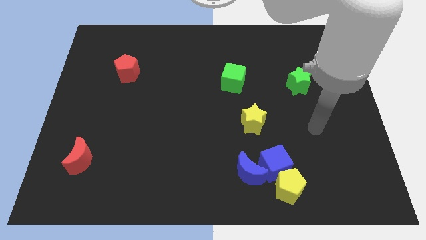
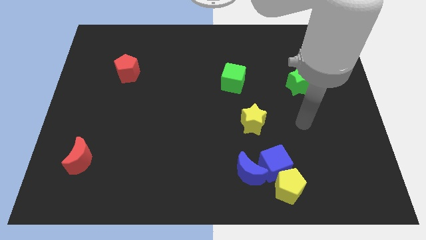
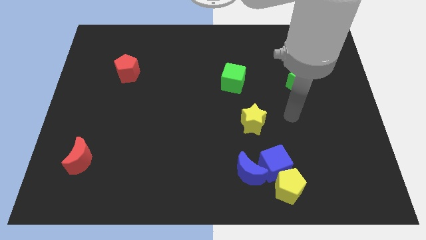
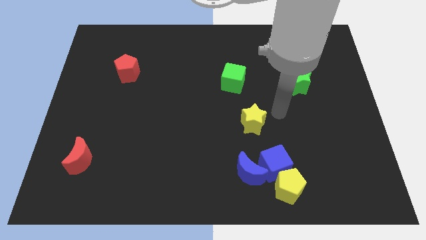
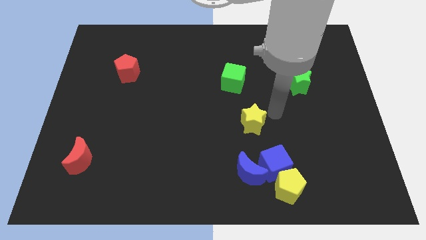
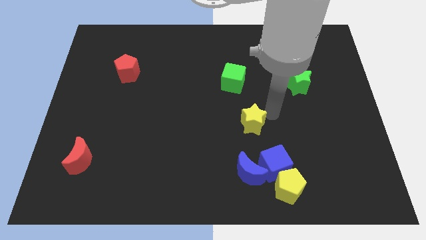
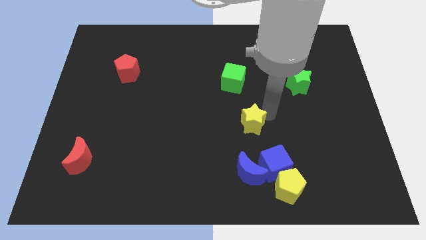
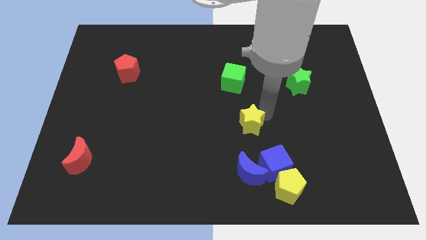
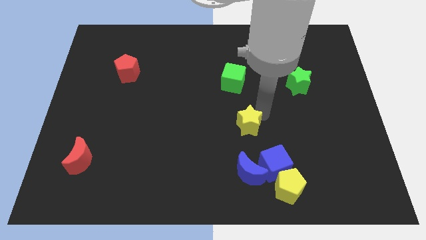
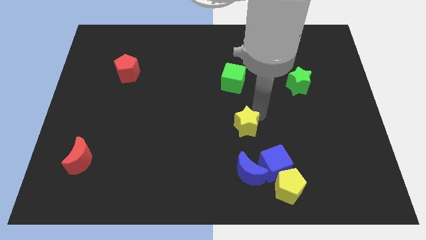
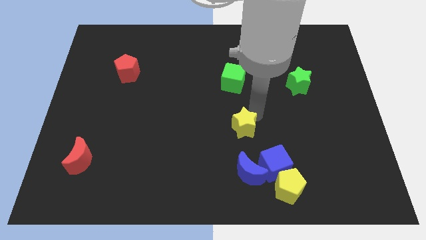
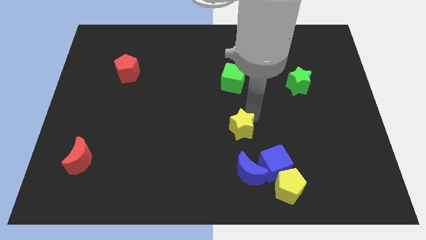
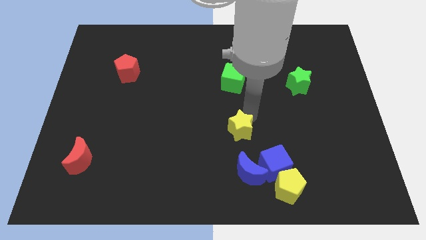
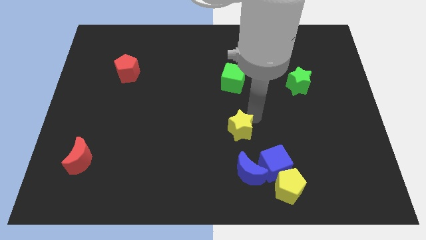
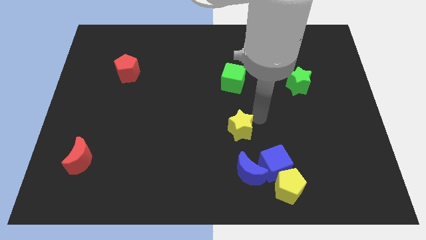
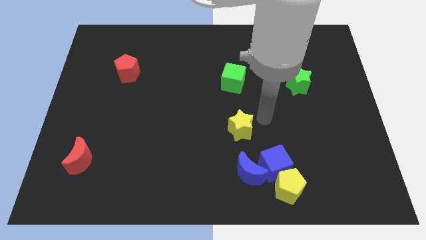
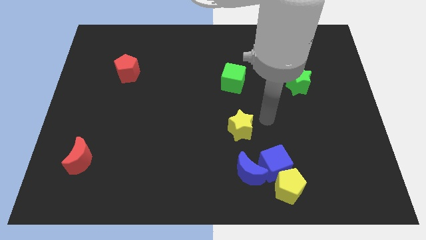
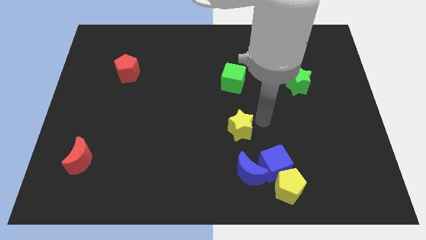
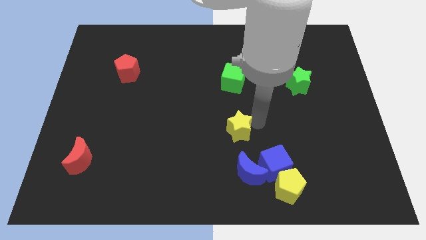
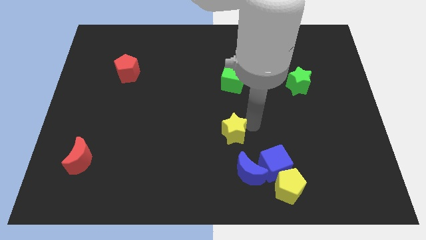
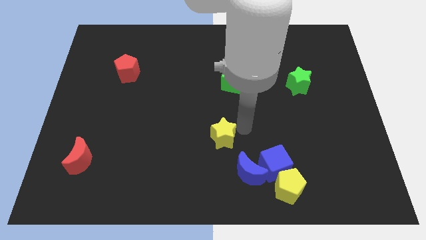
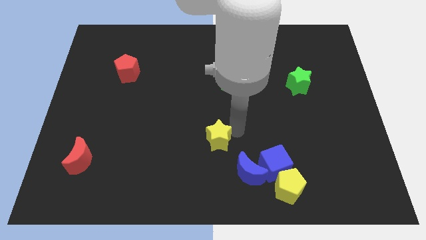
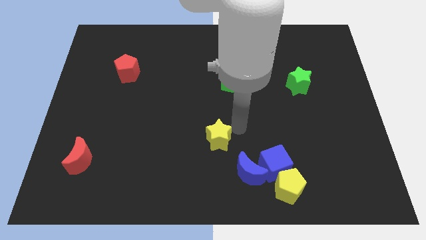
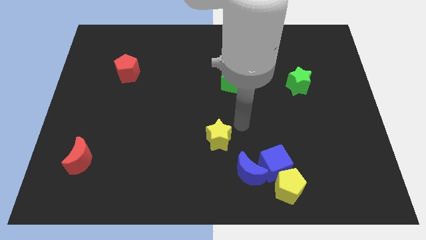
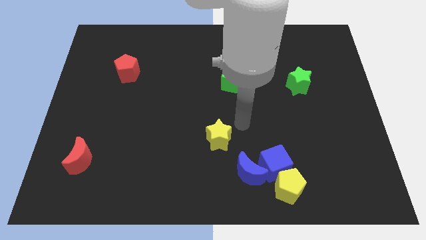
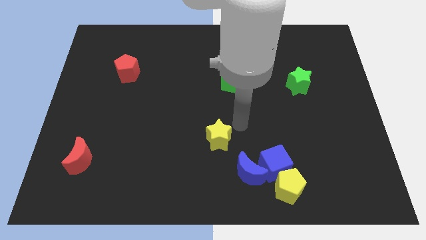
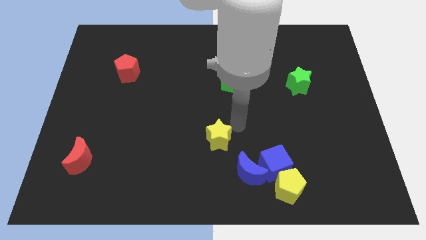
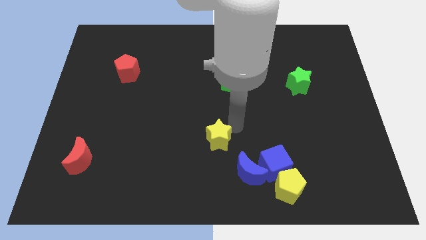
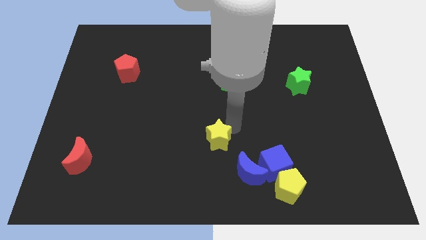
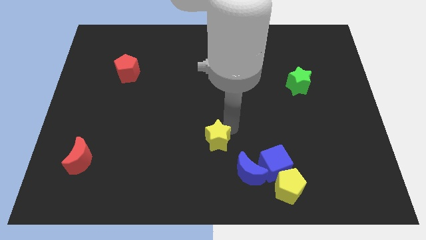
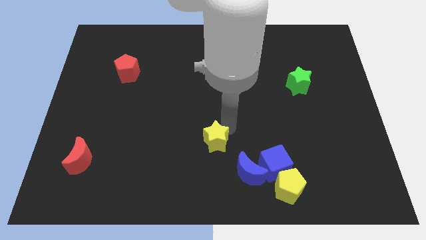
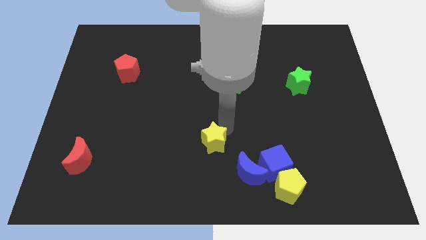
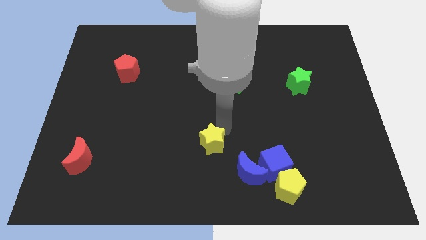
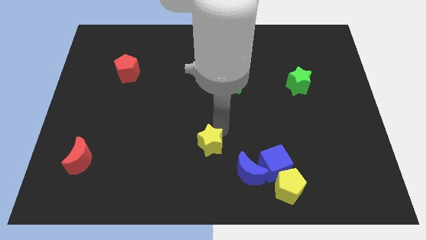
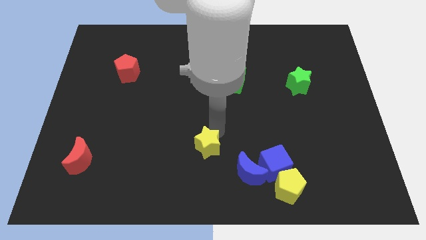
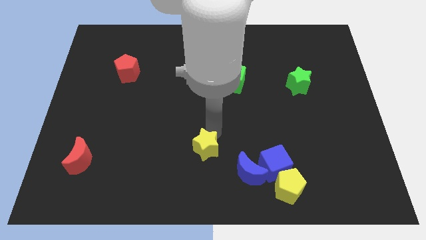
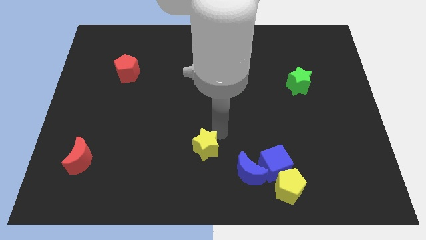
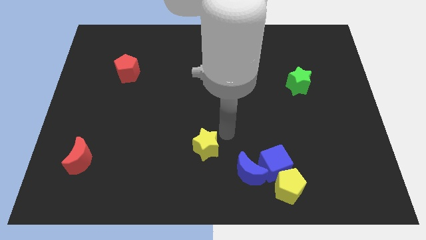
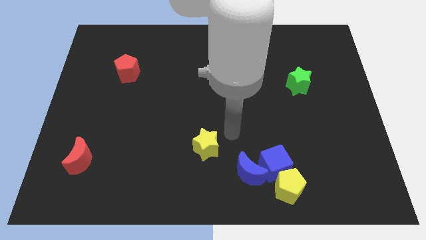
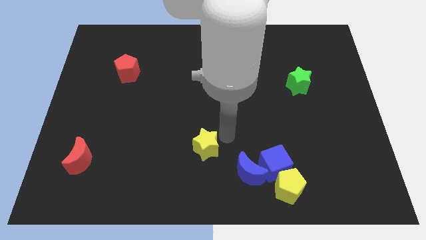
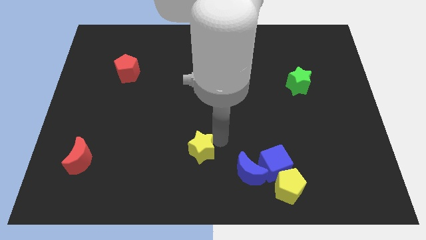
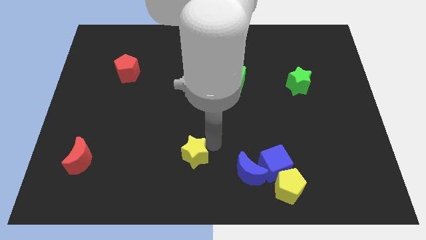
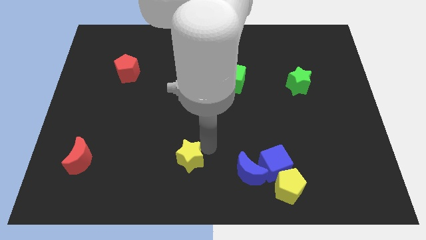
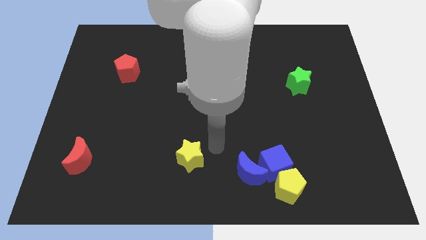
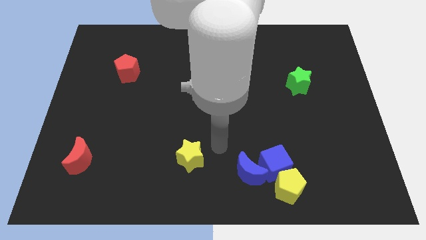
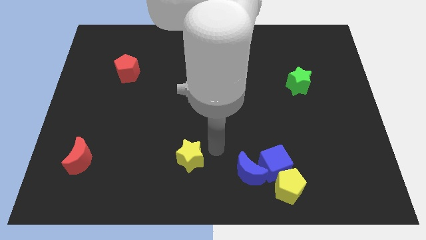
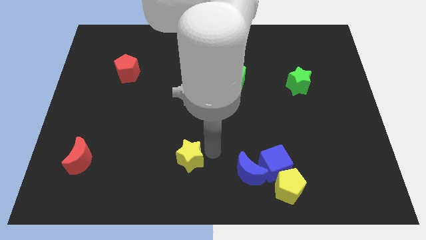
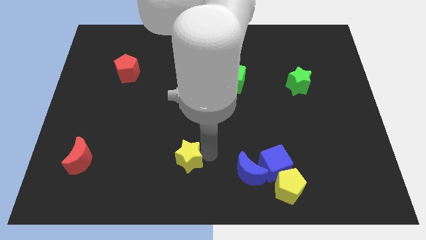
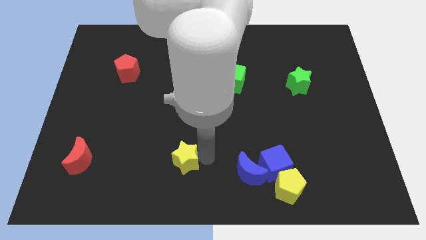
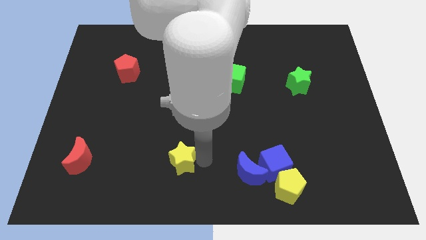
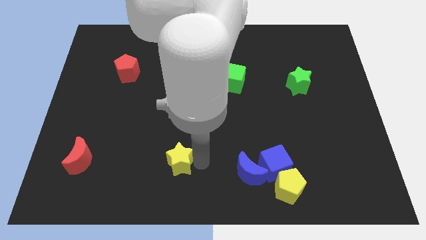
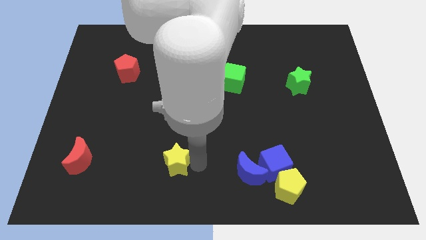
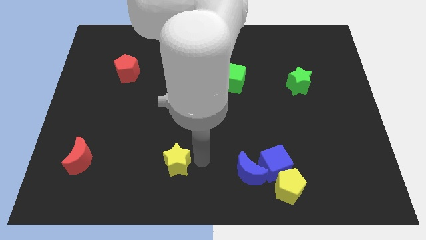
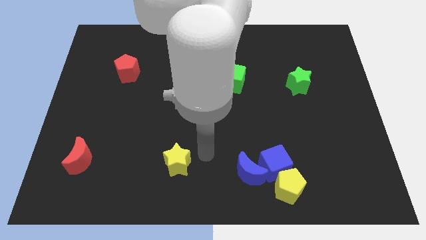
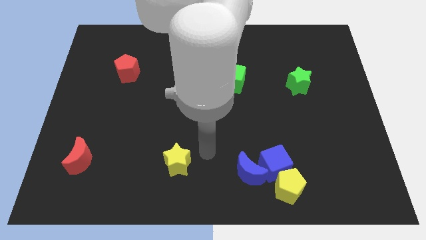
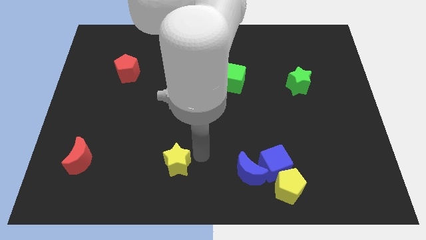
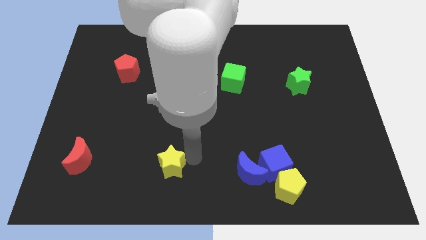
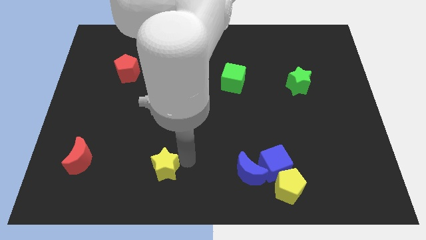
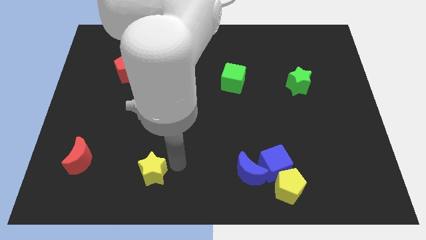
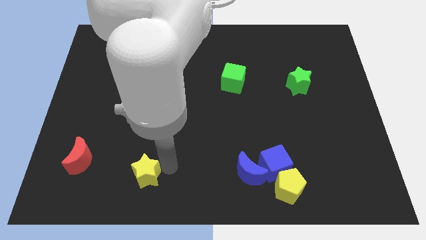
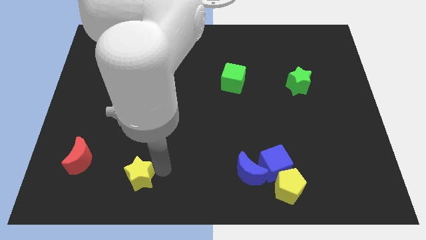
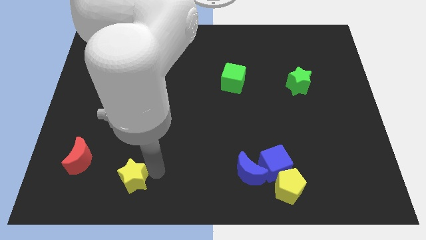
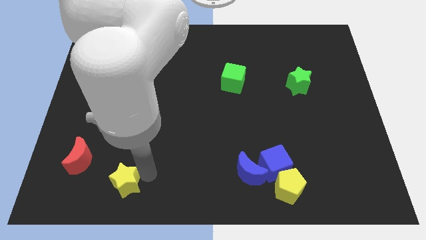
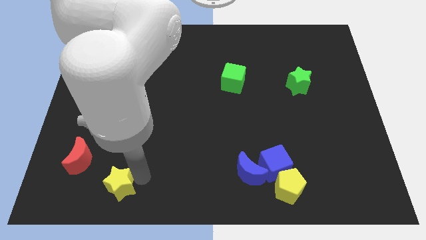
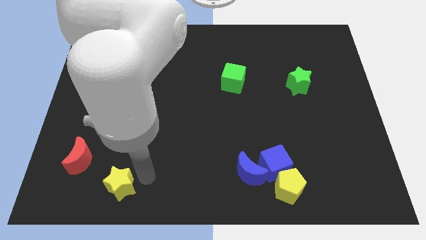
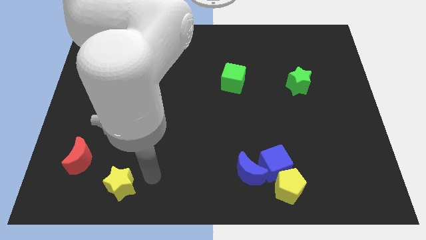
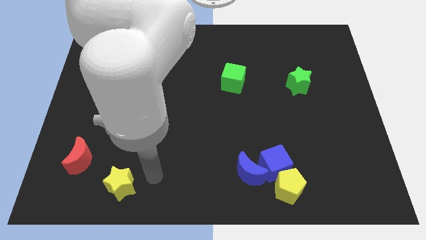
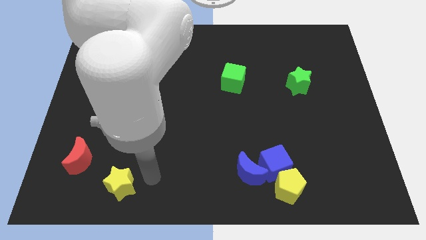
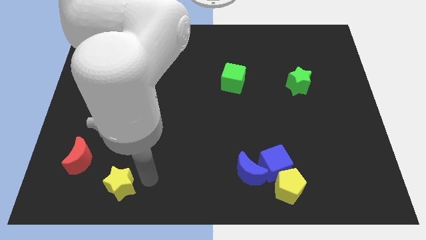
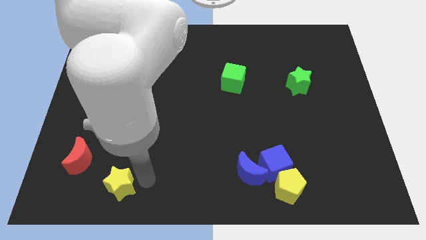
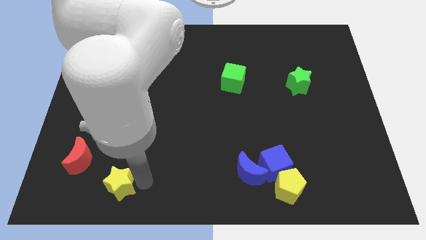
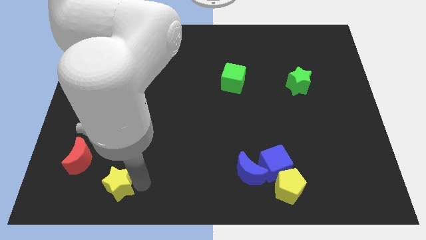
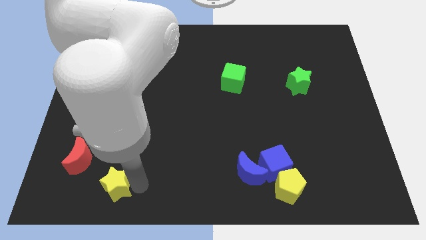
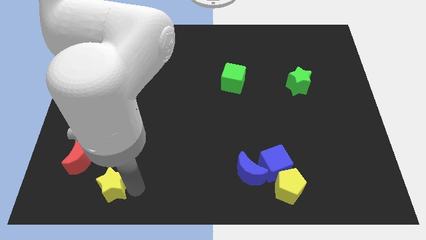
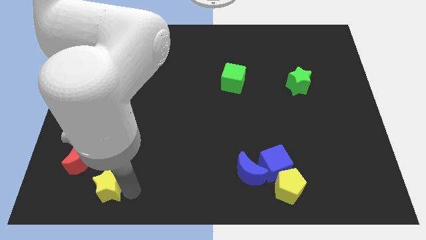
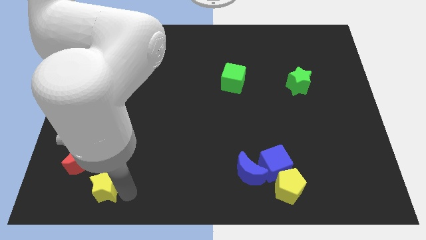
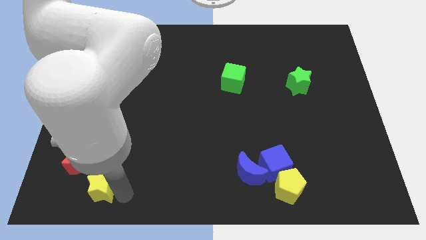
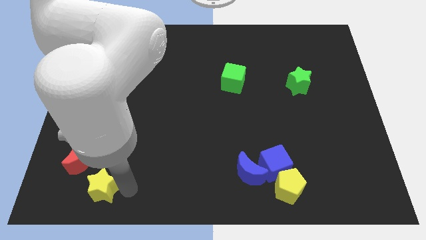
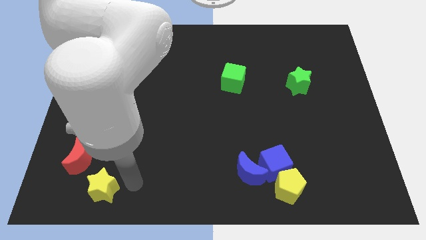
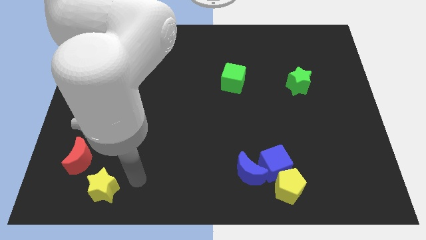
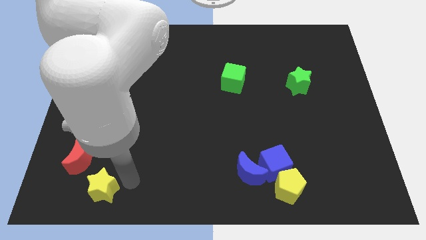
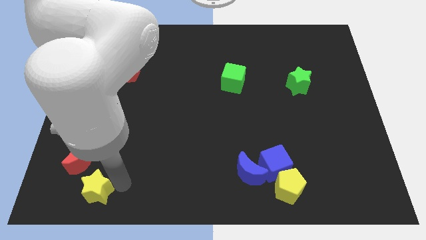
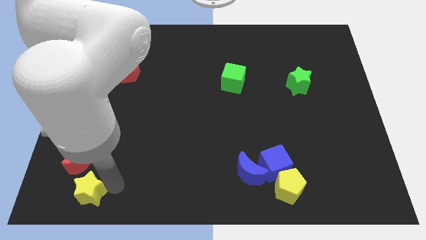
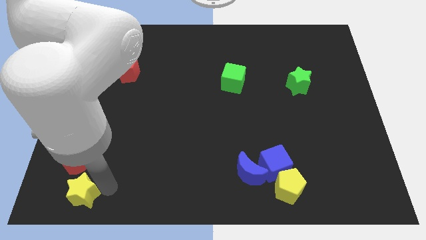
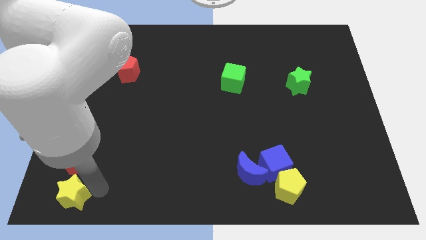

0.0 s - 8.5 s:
move the yellow star to the lower left corner
